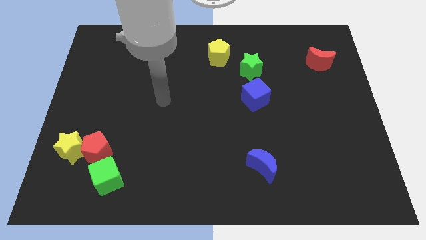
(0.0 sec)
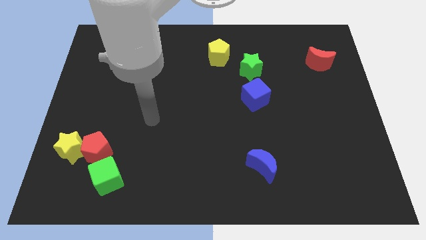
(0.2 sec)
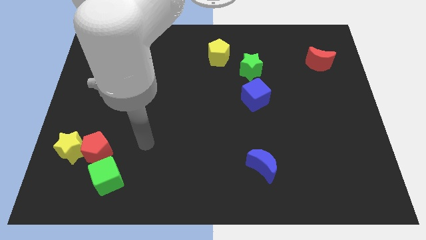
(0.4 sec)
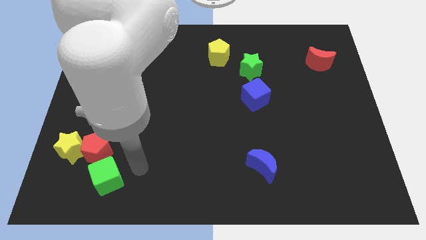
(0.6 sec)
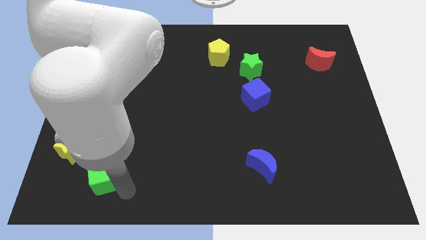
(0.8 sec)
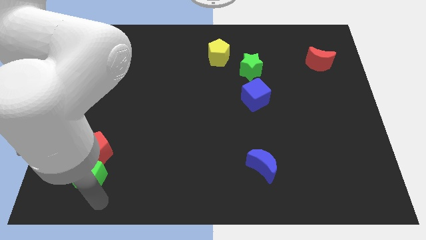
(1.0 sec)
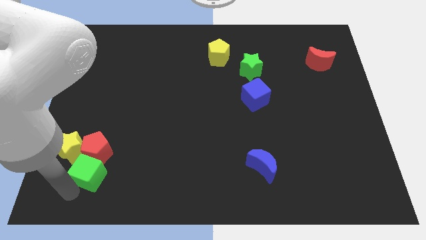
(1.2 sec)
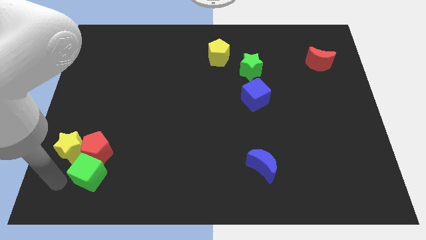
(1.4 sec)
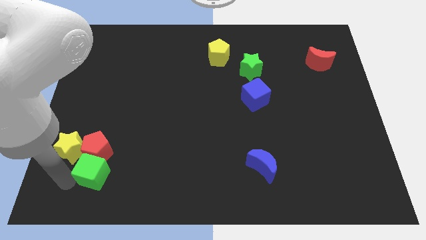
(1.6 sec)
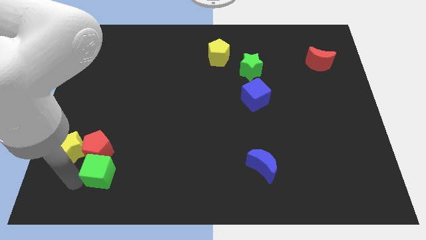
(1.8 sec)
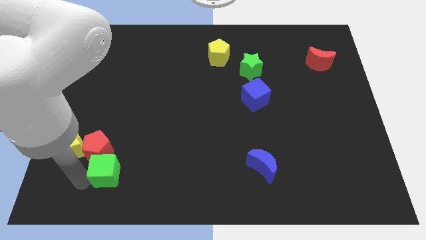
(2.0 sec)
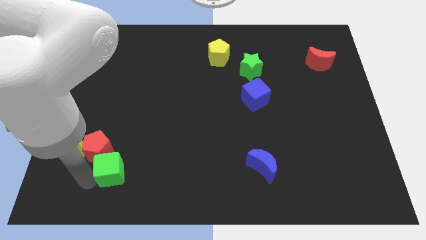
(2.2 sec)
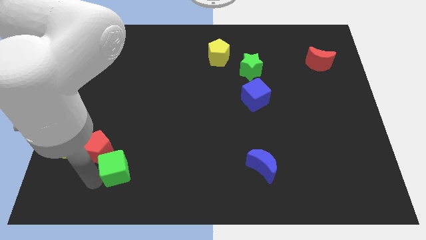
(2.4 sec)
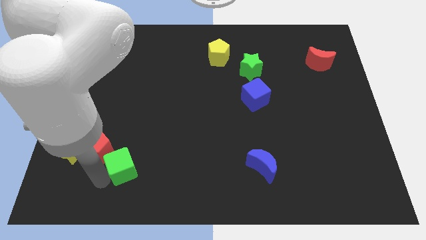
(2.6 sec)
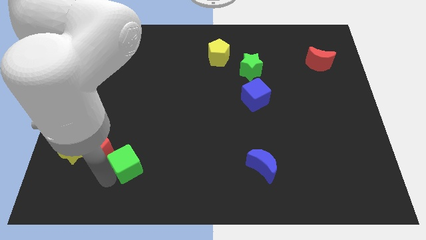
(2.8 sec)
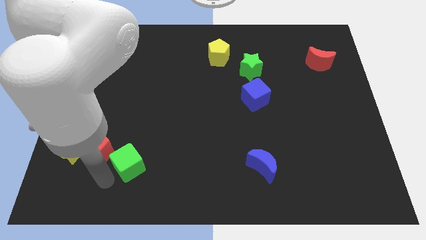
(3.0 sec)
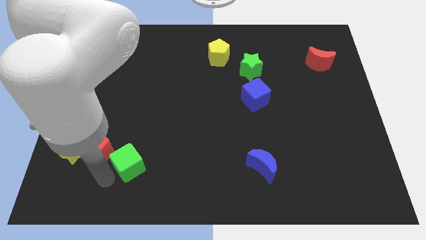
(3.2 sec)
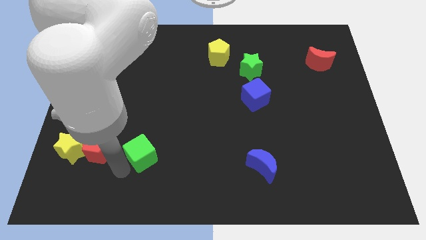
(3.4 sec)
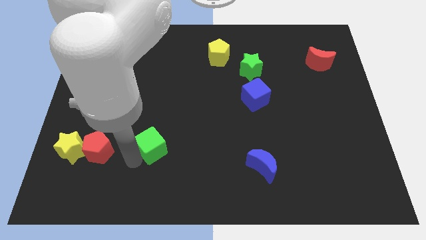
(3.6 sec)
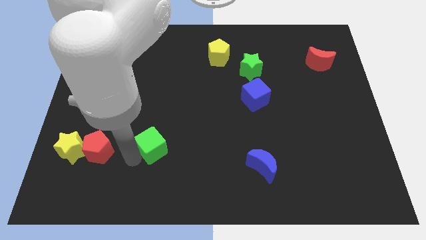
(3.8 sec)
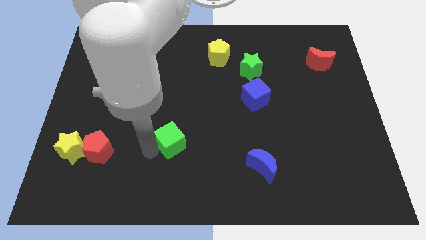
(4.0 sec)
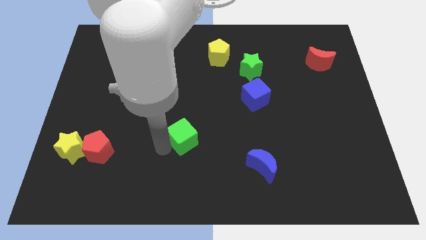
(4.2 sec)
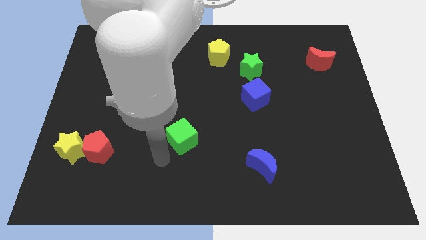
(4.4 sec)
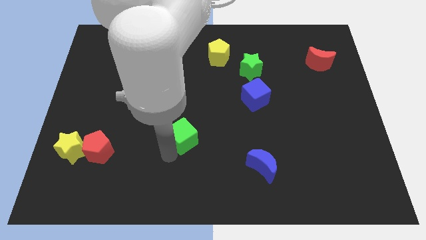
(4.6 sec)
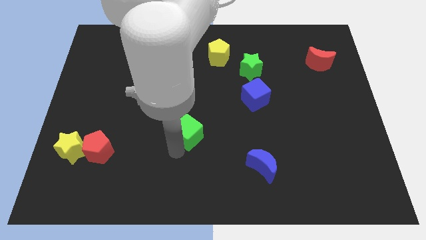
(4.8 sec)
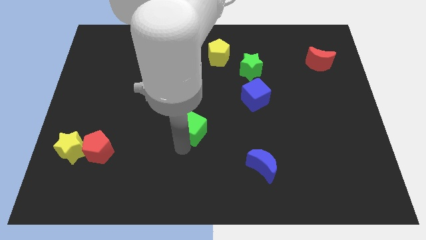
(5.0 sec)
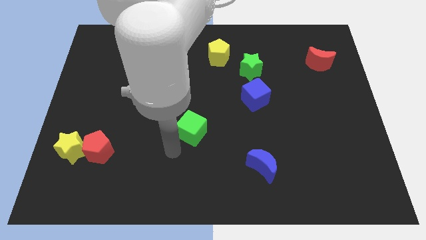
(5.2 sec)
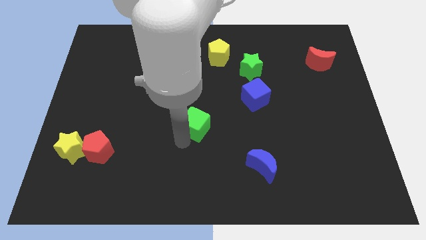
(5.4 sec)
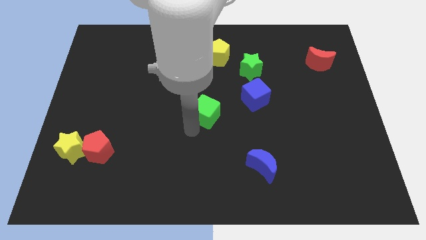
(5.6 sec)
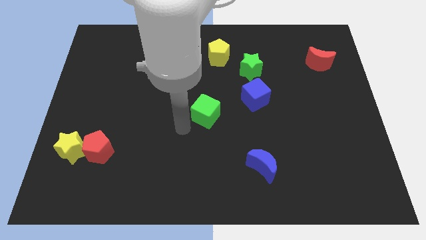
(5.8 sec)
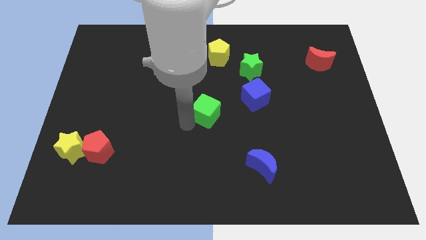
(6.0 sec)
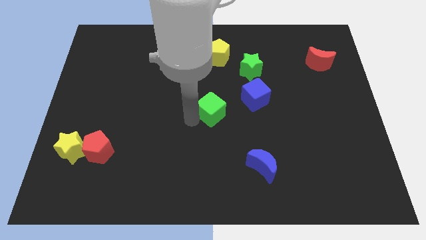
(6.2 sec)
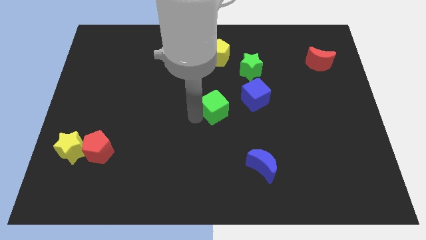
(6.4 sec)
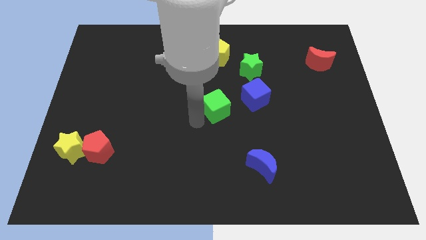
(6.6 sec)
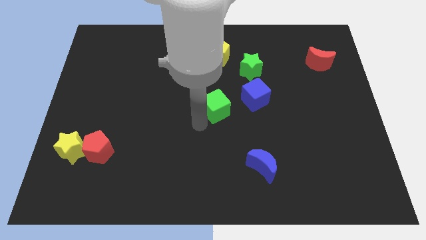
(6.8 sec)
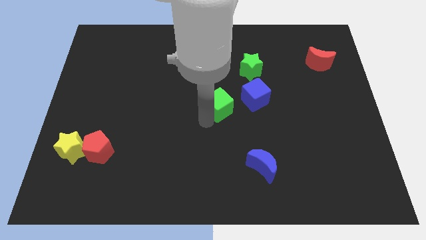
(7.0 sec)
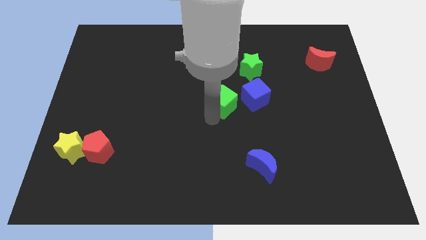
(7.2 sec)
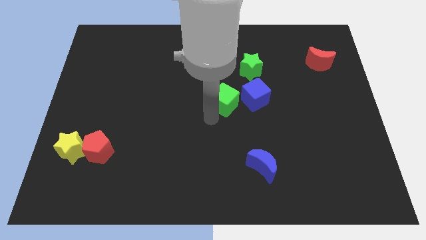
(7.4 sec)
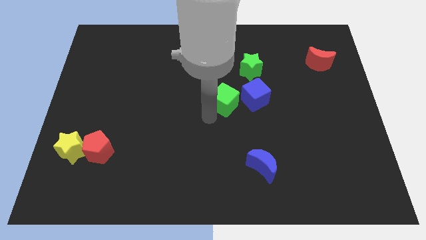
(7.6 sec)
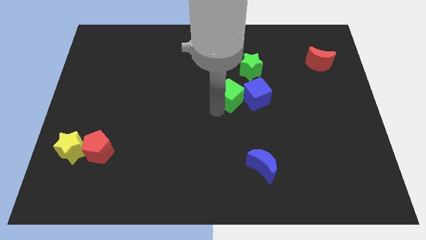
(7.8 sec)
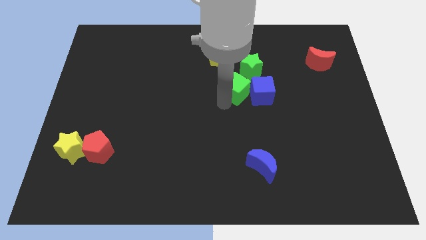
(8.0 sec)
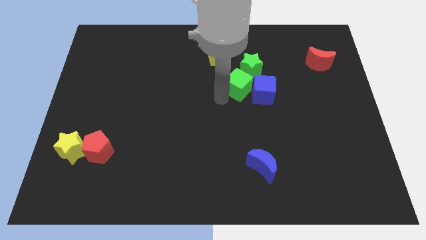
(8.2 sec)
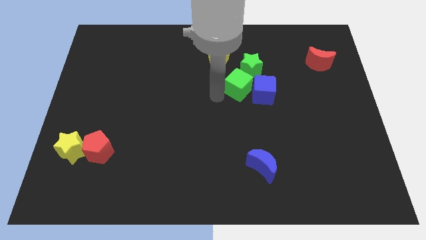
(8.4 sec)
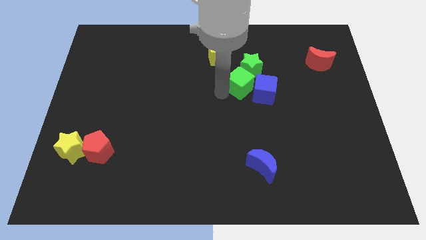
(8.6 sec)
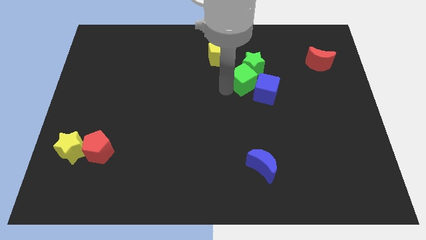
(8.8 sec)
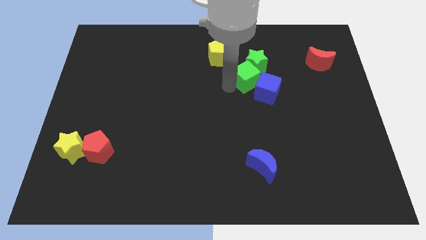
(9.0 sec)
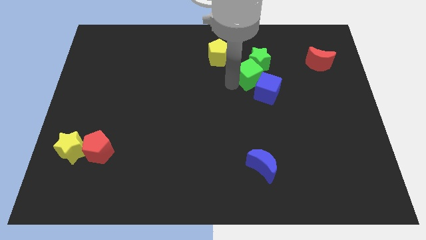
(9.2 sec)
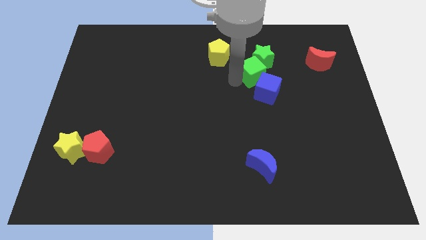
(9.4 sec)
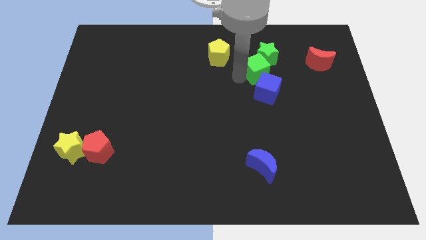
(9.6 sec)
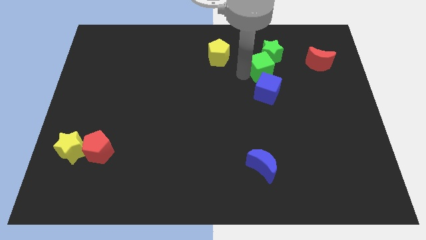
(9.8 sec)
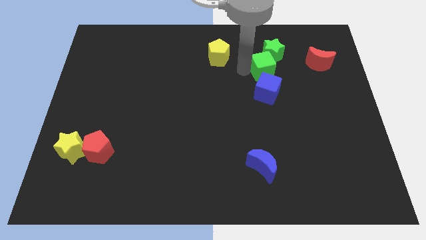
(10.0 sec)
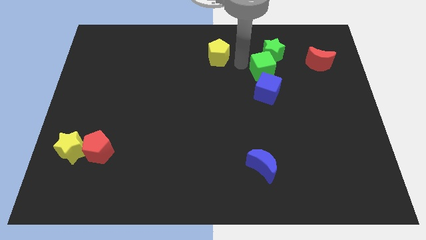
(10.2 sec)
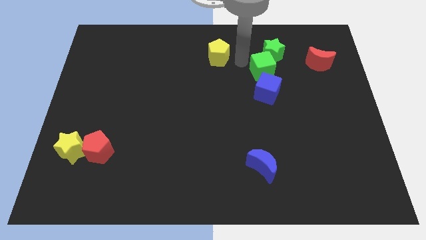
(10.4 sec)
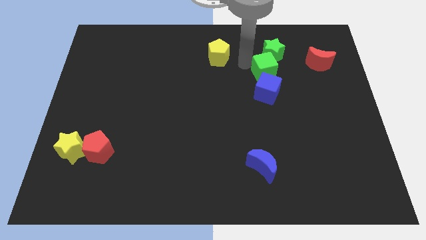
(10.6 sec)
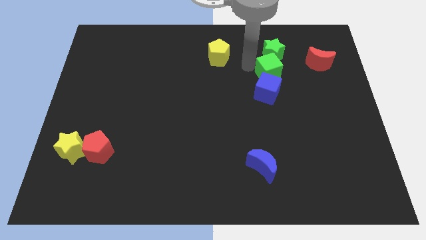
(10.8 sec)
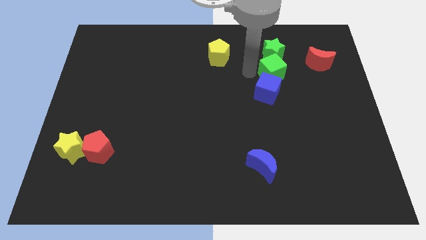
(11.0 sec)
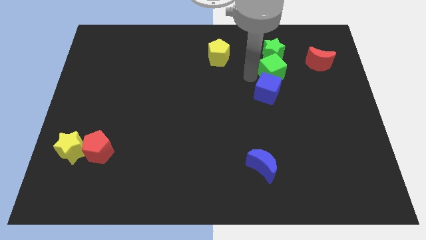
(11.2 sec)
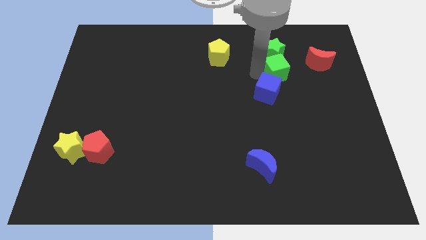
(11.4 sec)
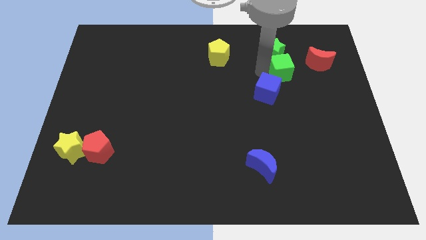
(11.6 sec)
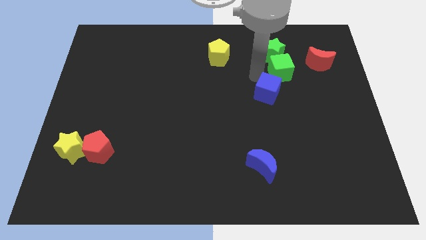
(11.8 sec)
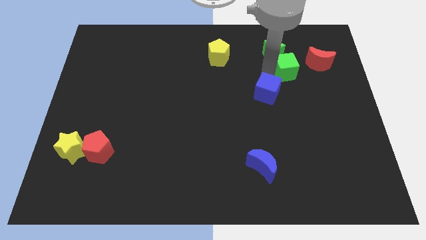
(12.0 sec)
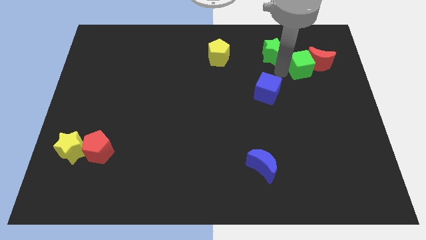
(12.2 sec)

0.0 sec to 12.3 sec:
slide the green cube to the red moon

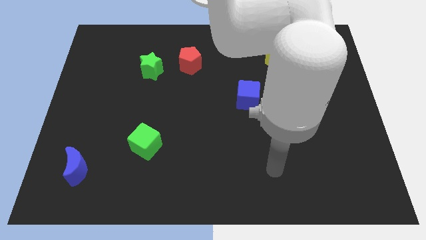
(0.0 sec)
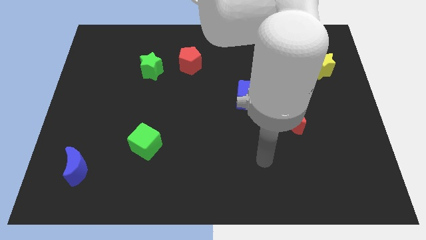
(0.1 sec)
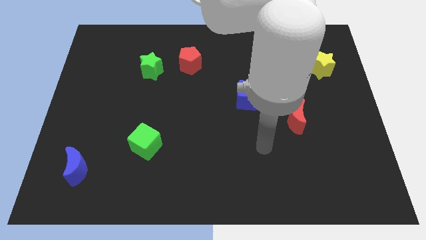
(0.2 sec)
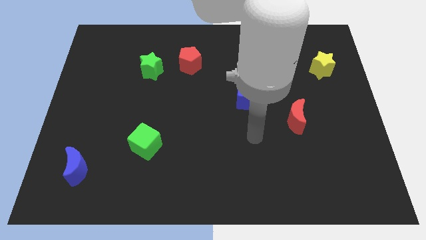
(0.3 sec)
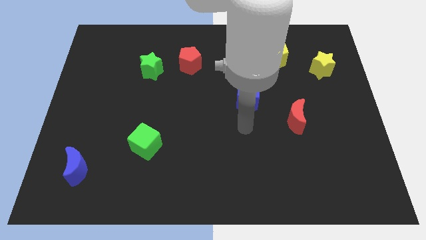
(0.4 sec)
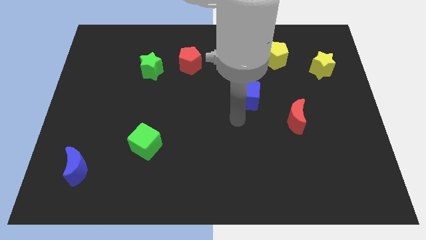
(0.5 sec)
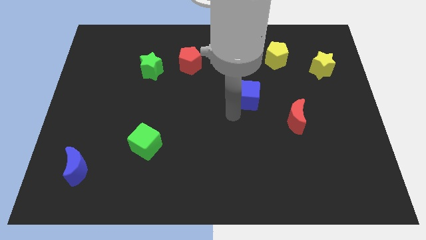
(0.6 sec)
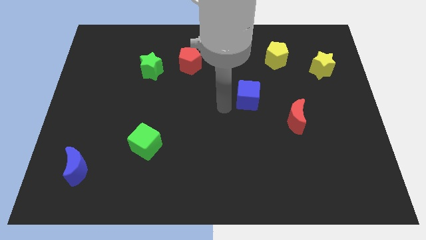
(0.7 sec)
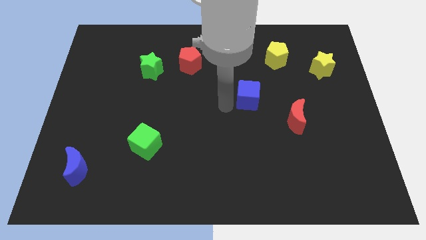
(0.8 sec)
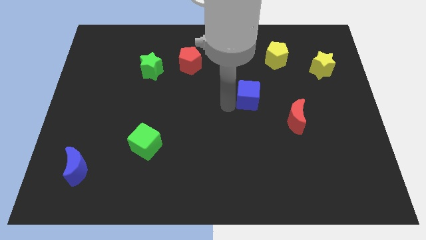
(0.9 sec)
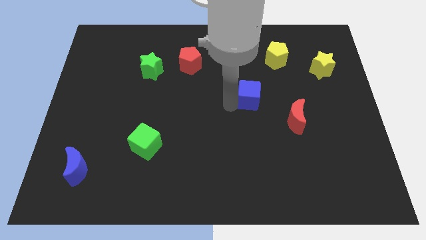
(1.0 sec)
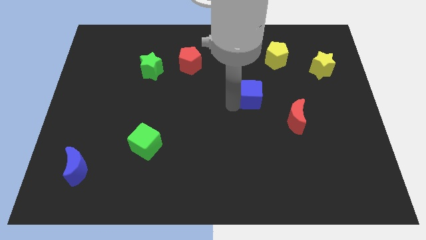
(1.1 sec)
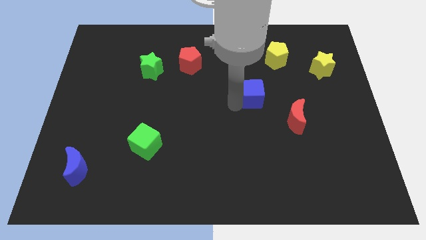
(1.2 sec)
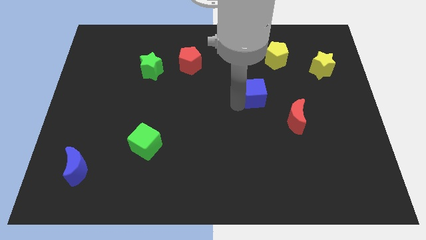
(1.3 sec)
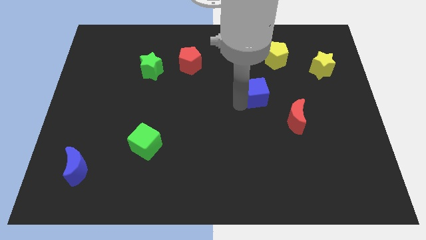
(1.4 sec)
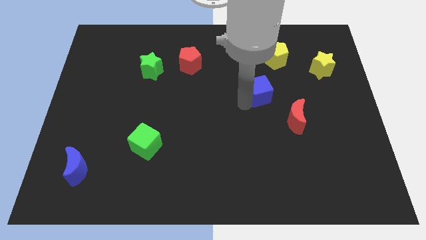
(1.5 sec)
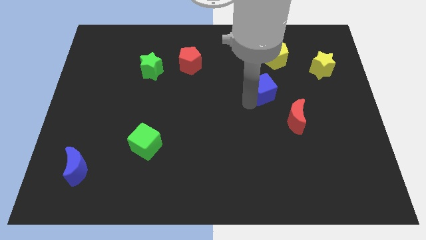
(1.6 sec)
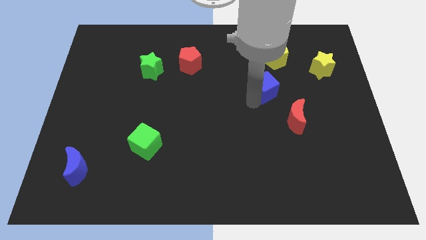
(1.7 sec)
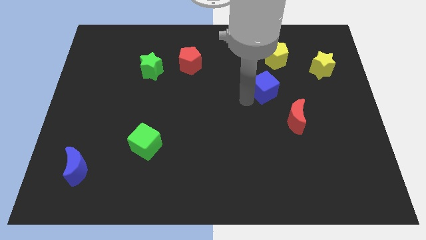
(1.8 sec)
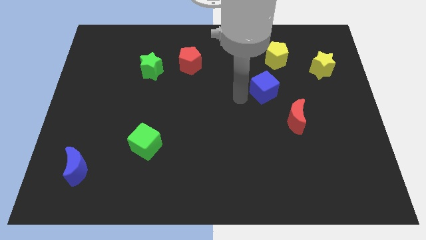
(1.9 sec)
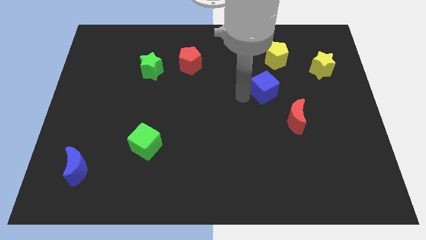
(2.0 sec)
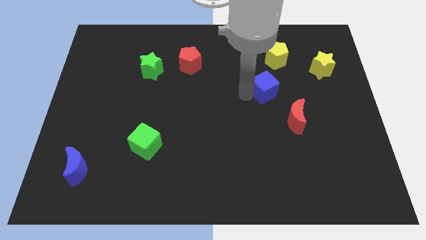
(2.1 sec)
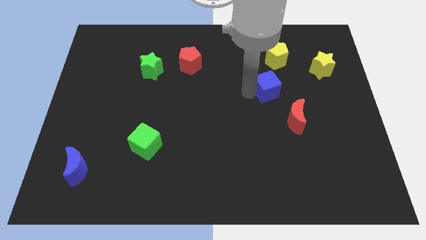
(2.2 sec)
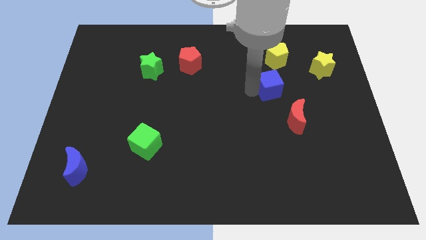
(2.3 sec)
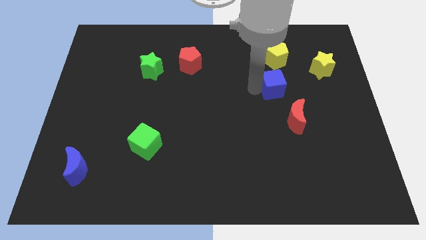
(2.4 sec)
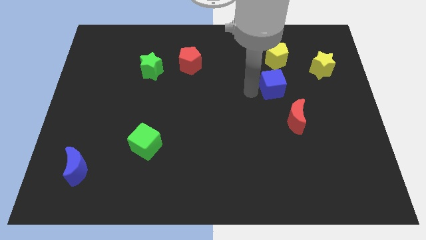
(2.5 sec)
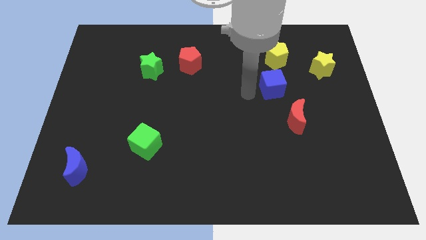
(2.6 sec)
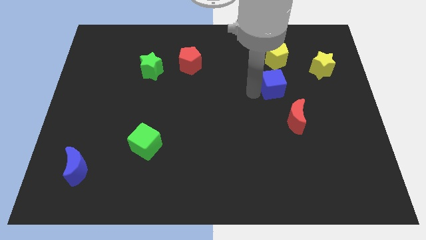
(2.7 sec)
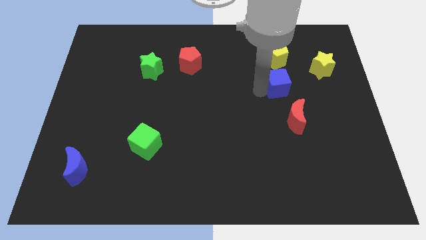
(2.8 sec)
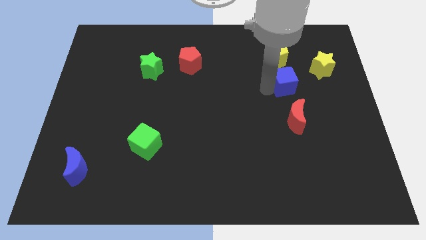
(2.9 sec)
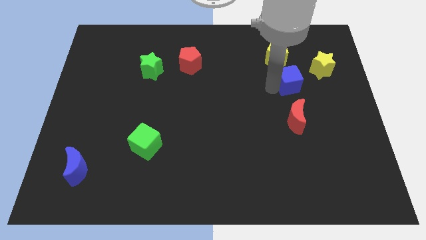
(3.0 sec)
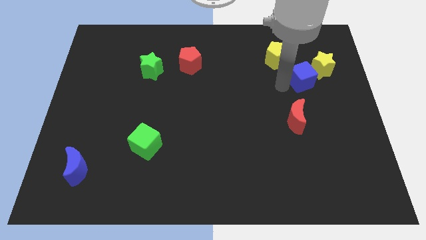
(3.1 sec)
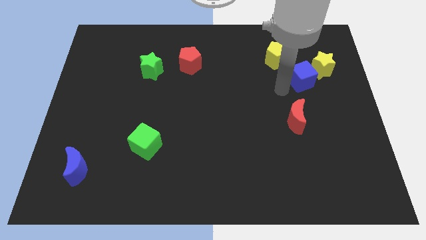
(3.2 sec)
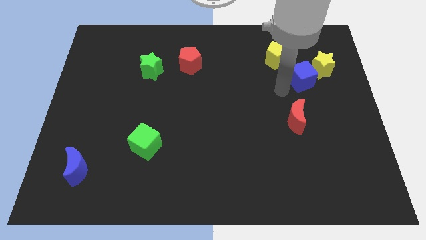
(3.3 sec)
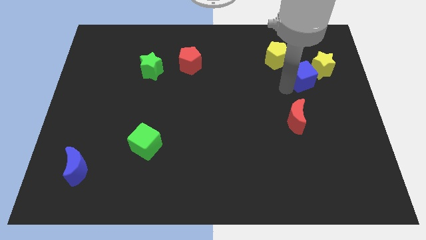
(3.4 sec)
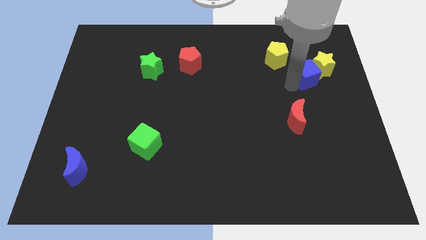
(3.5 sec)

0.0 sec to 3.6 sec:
push the blue cube to the yellow star
